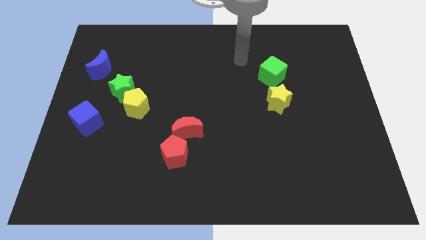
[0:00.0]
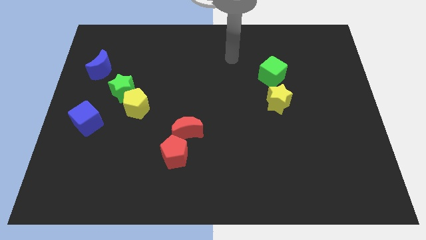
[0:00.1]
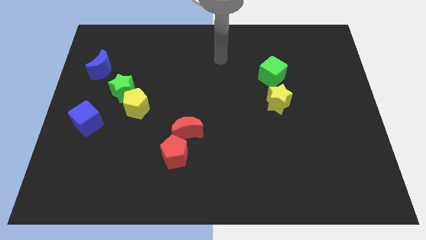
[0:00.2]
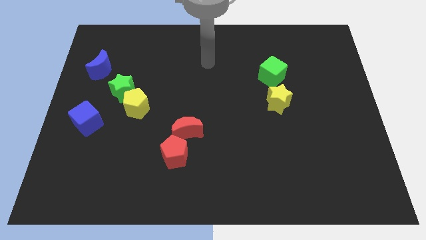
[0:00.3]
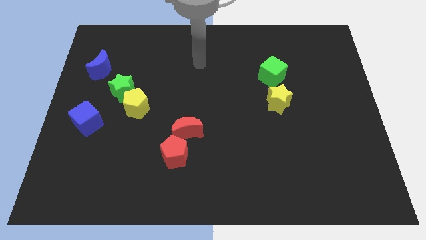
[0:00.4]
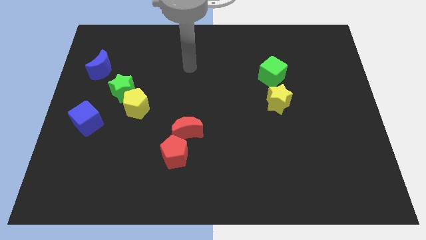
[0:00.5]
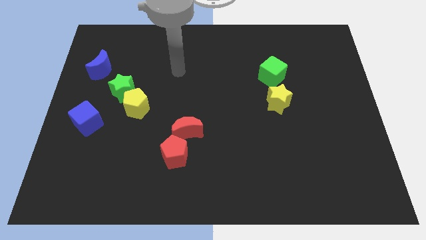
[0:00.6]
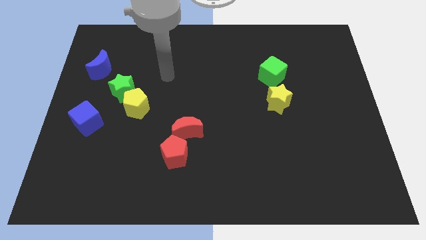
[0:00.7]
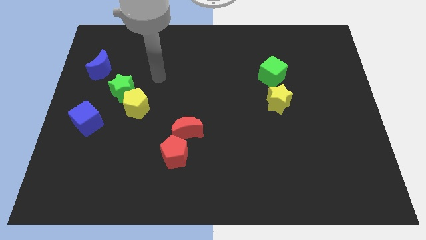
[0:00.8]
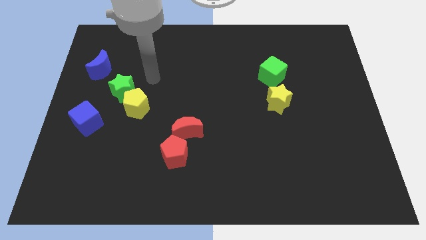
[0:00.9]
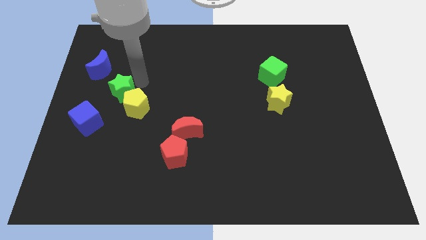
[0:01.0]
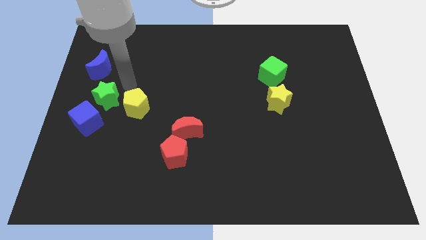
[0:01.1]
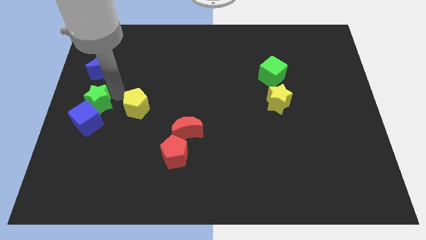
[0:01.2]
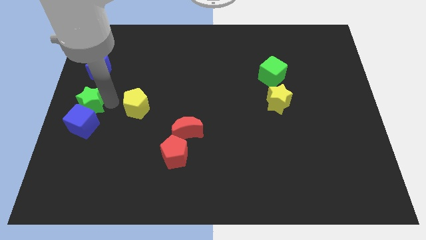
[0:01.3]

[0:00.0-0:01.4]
pull the yellow pentagon apart from the green star

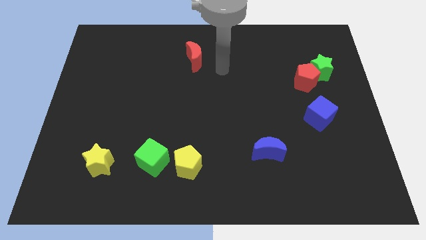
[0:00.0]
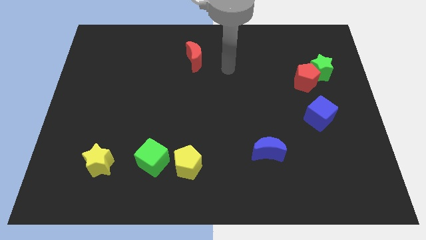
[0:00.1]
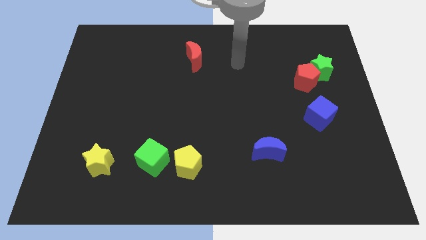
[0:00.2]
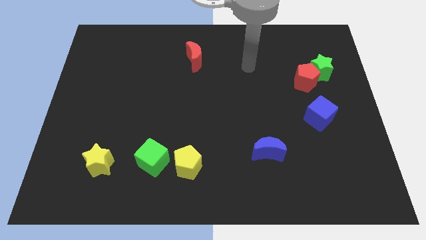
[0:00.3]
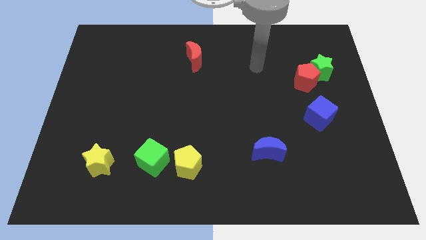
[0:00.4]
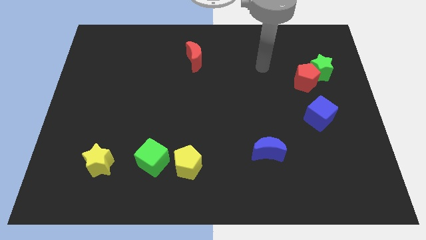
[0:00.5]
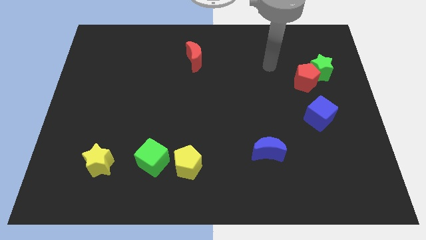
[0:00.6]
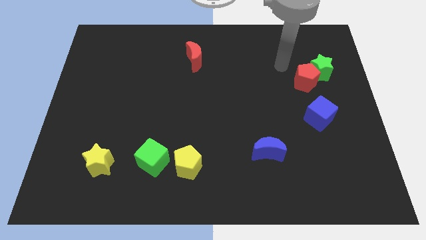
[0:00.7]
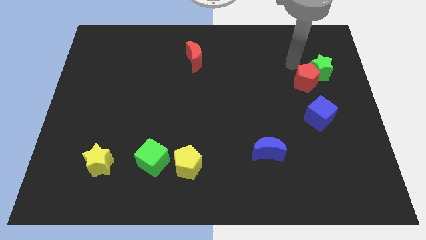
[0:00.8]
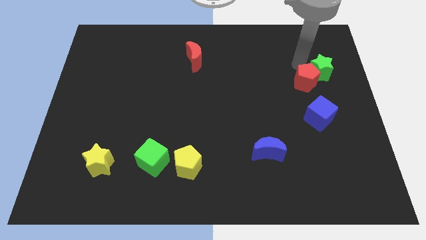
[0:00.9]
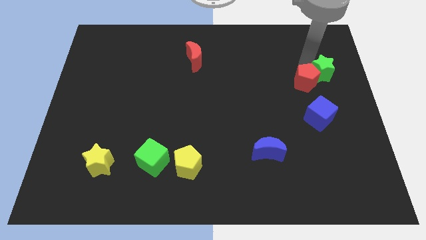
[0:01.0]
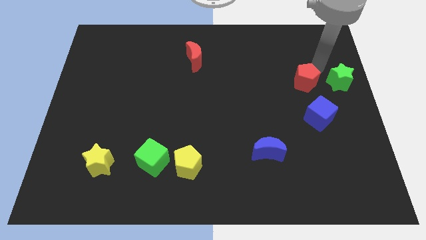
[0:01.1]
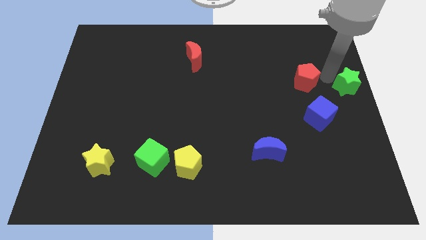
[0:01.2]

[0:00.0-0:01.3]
pull the red pentagon apart from the green star

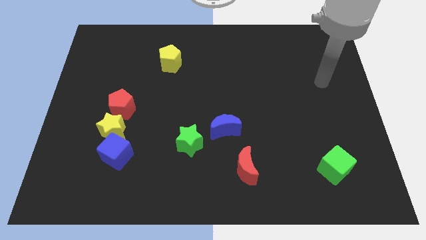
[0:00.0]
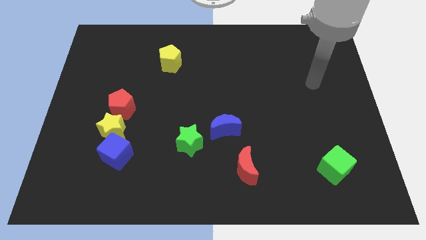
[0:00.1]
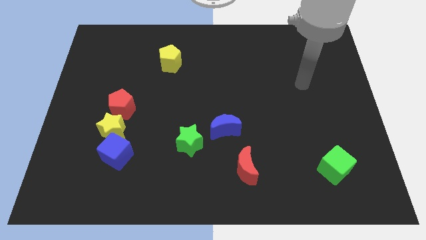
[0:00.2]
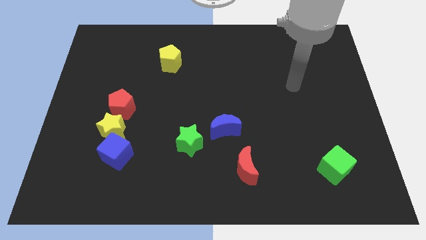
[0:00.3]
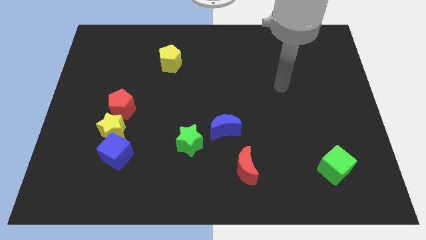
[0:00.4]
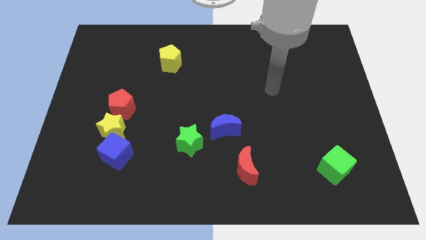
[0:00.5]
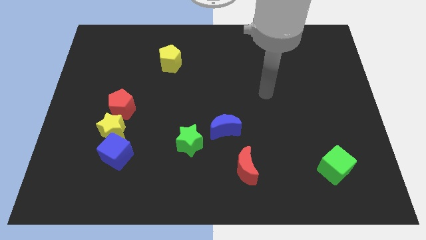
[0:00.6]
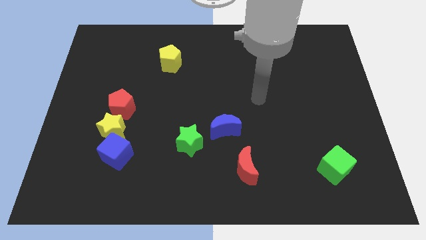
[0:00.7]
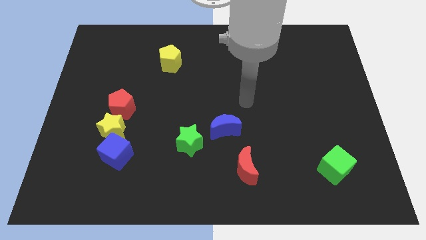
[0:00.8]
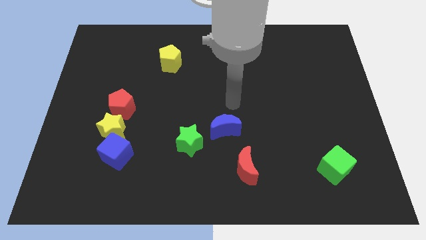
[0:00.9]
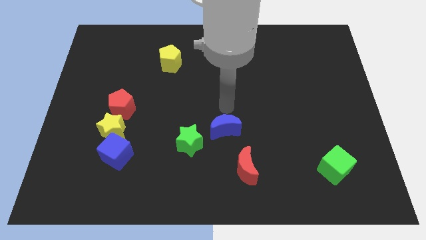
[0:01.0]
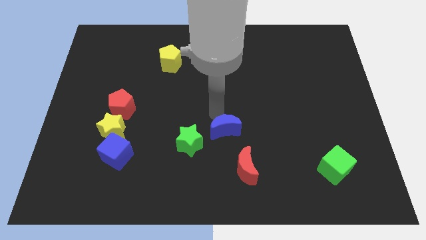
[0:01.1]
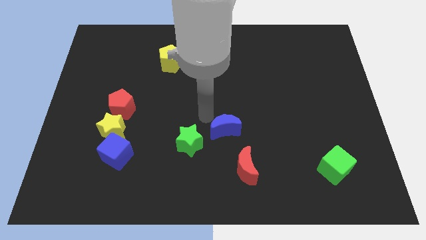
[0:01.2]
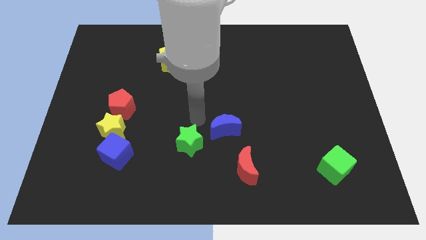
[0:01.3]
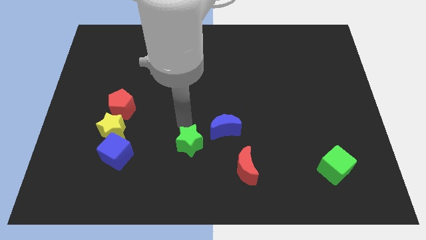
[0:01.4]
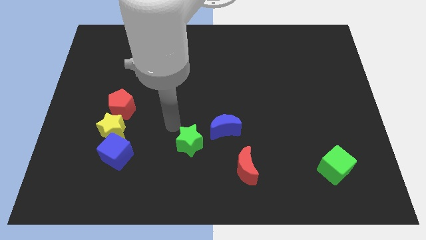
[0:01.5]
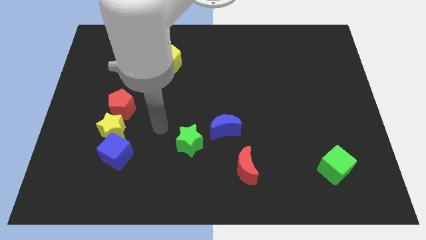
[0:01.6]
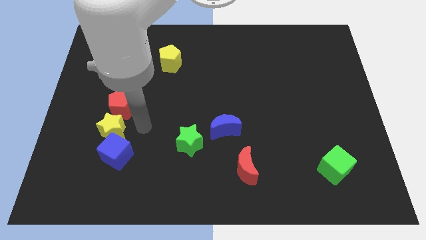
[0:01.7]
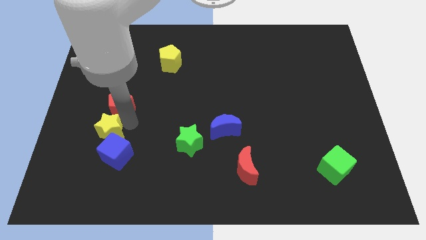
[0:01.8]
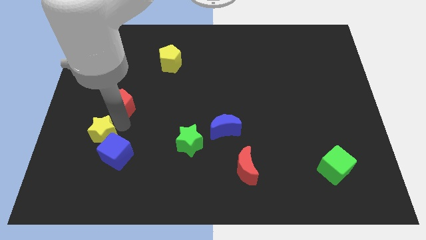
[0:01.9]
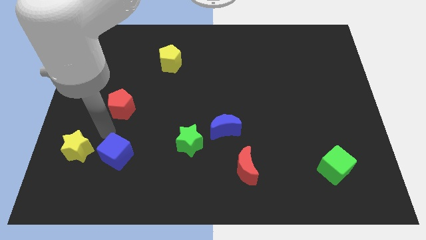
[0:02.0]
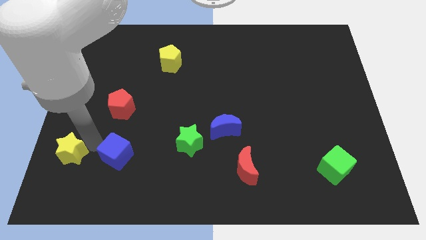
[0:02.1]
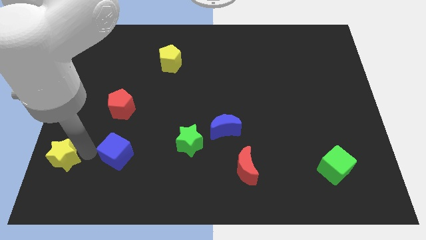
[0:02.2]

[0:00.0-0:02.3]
move the blue cube away from the yellow star

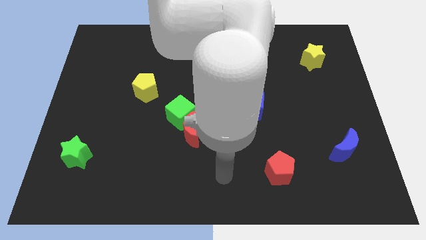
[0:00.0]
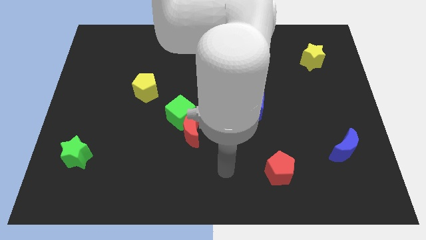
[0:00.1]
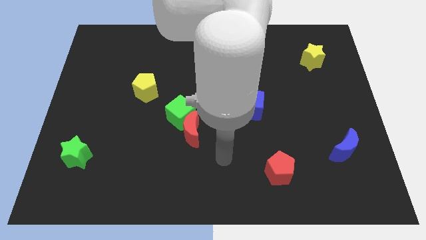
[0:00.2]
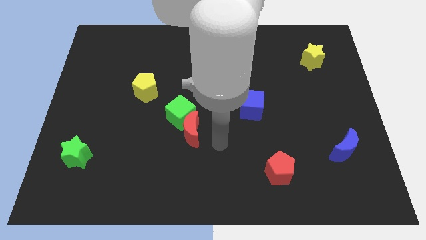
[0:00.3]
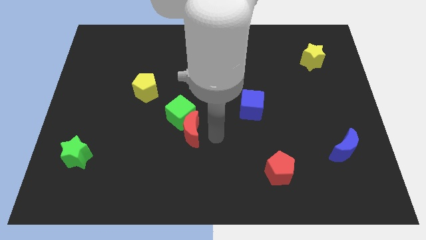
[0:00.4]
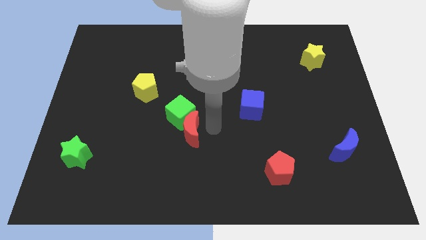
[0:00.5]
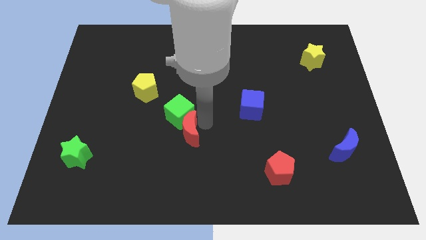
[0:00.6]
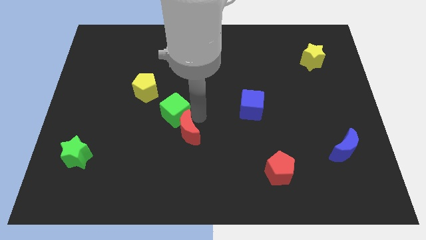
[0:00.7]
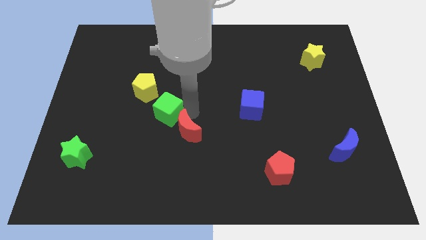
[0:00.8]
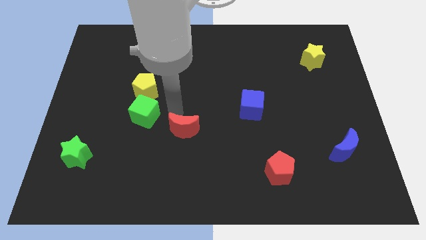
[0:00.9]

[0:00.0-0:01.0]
separate the red moon from the green cube

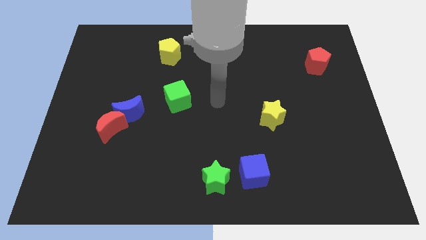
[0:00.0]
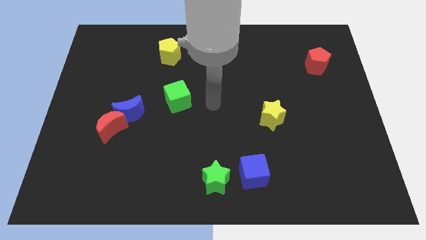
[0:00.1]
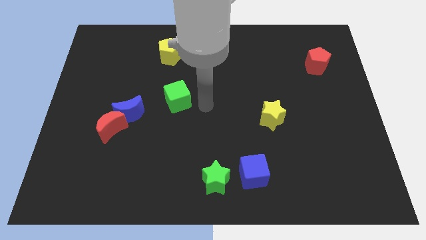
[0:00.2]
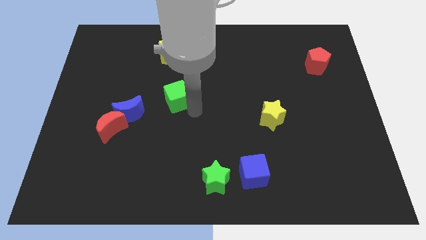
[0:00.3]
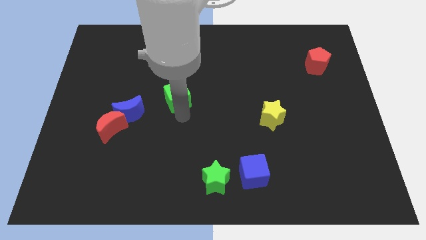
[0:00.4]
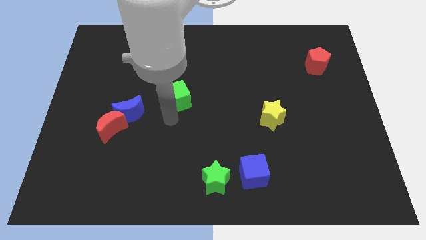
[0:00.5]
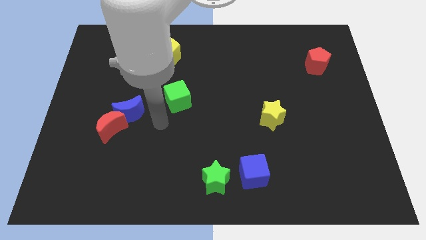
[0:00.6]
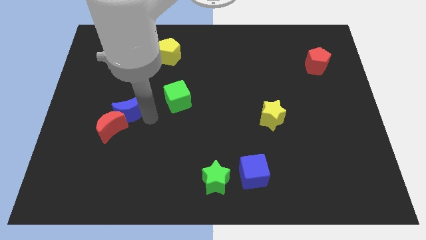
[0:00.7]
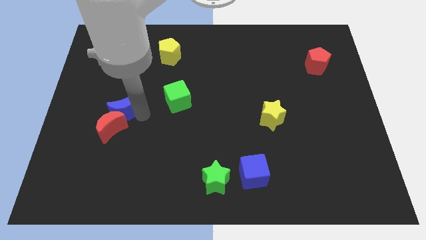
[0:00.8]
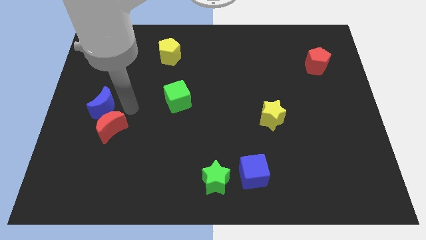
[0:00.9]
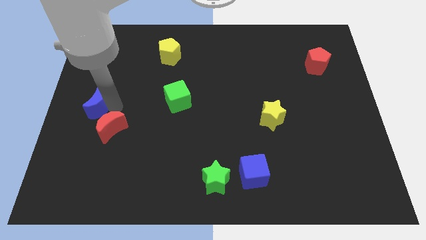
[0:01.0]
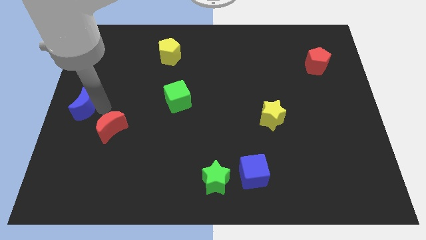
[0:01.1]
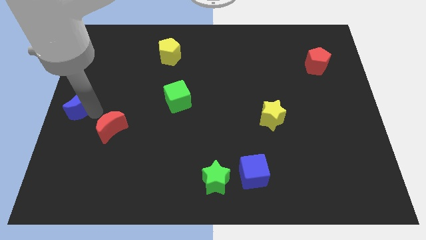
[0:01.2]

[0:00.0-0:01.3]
move the red moon away from the blue moon

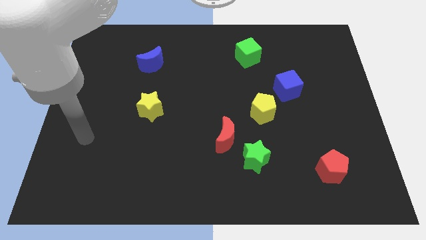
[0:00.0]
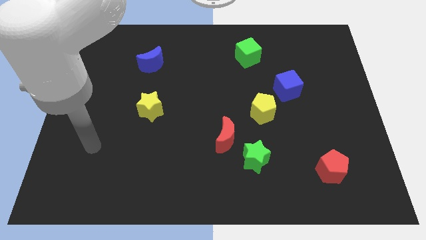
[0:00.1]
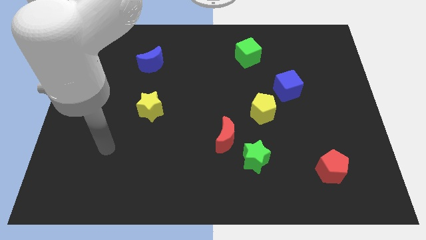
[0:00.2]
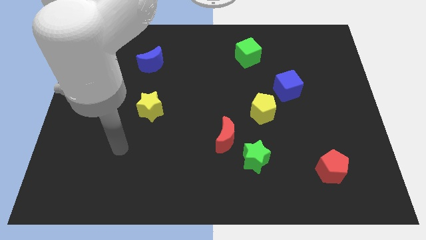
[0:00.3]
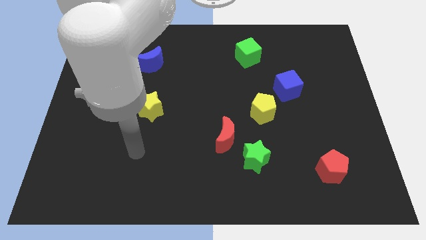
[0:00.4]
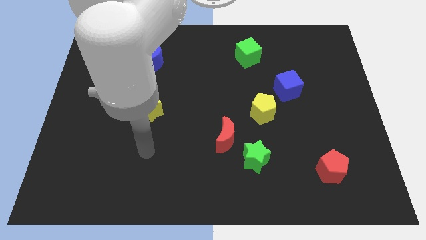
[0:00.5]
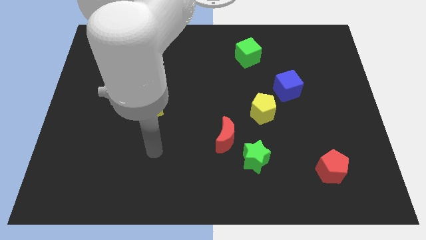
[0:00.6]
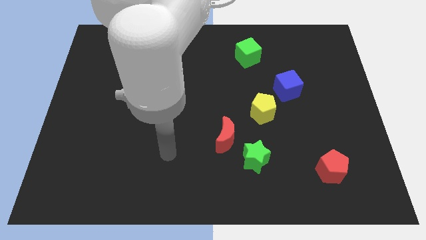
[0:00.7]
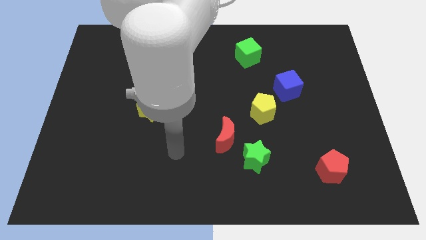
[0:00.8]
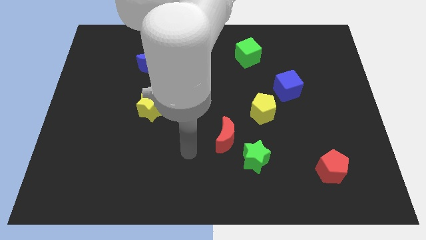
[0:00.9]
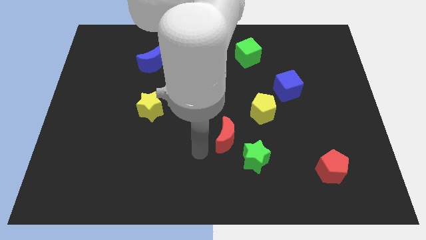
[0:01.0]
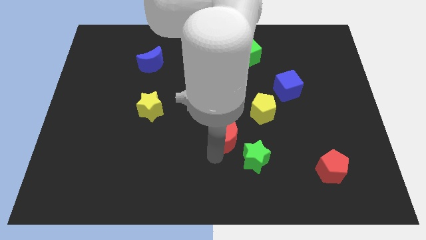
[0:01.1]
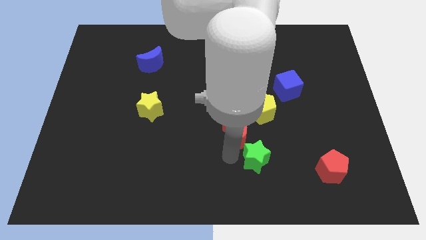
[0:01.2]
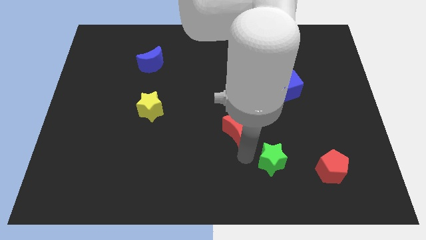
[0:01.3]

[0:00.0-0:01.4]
separate the red moon from the green star

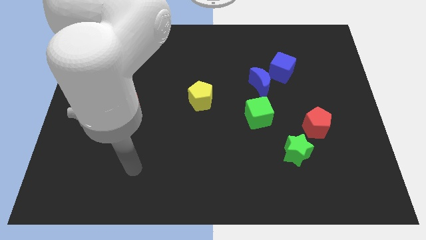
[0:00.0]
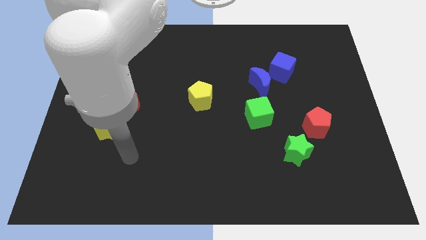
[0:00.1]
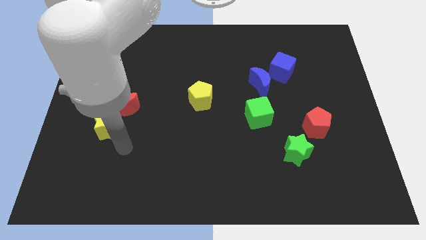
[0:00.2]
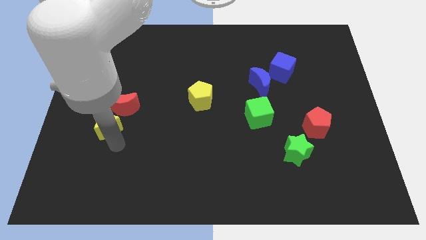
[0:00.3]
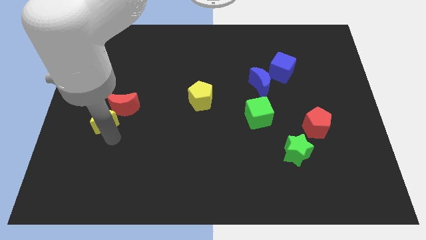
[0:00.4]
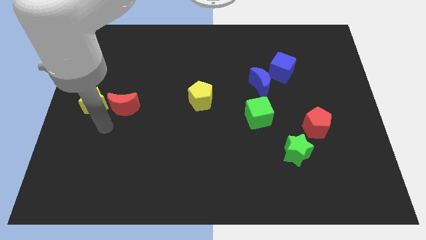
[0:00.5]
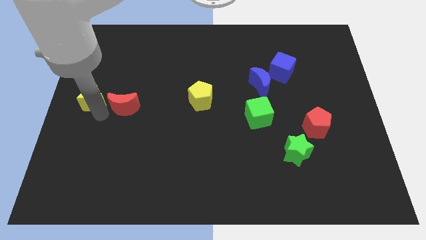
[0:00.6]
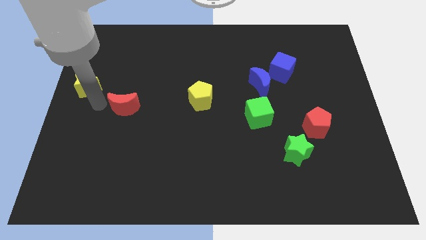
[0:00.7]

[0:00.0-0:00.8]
separate the red moon from the yellow star
